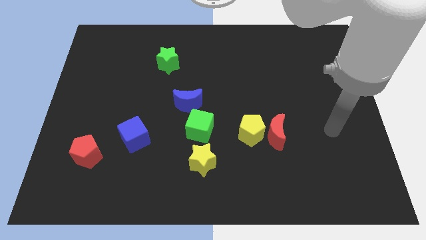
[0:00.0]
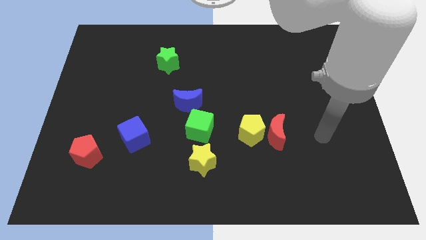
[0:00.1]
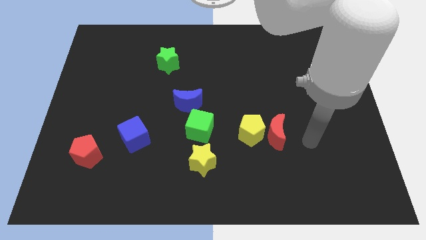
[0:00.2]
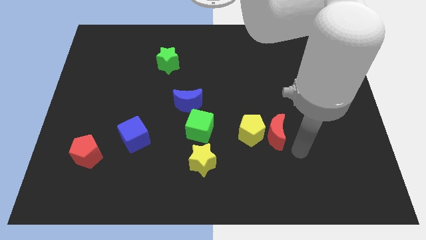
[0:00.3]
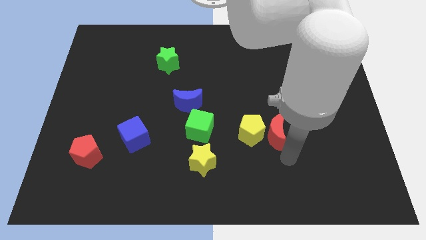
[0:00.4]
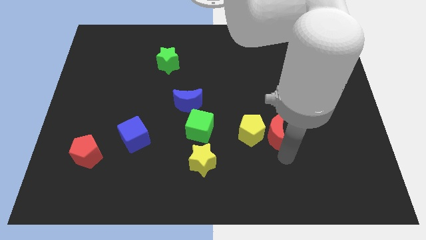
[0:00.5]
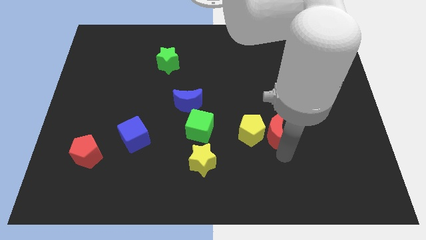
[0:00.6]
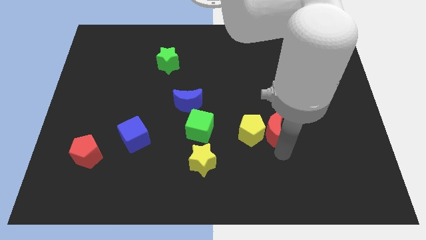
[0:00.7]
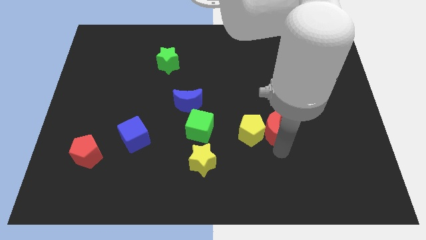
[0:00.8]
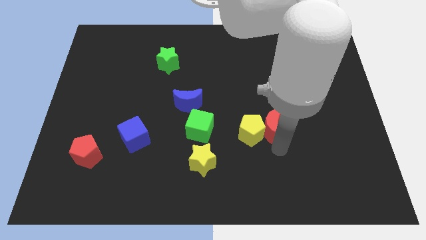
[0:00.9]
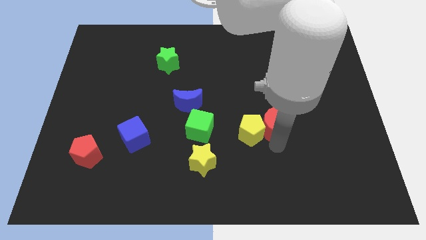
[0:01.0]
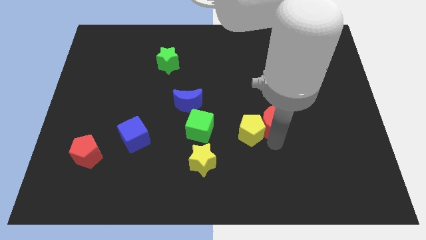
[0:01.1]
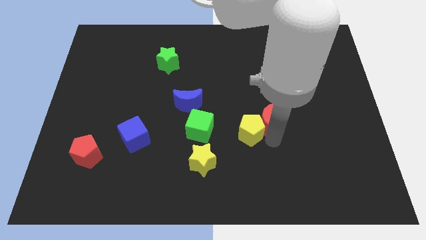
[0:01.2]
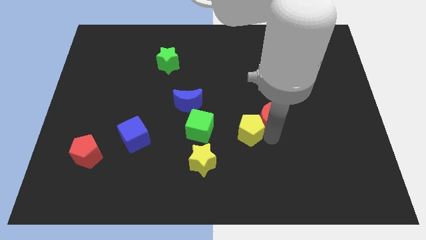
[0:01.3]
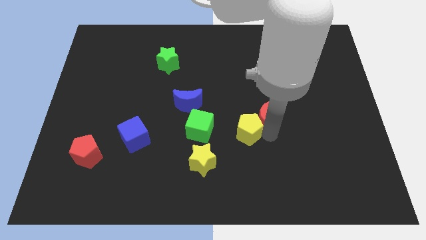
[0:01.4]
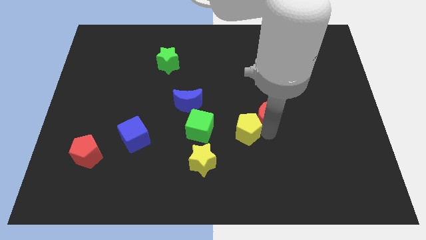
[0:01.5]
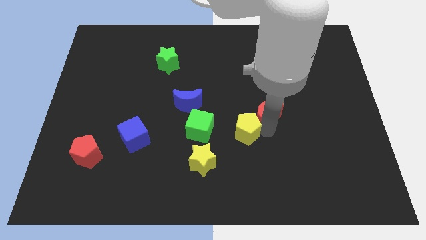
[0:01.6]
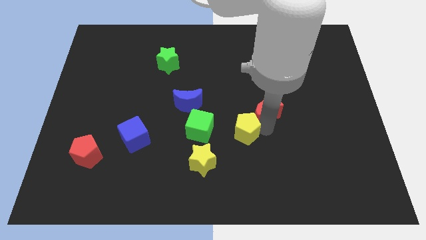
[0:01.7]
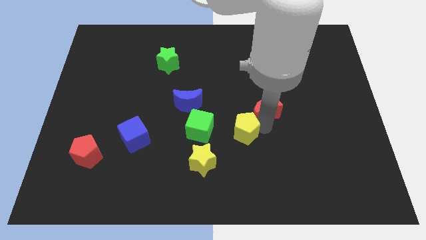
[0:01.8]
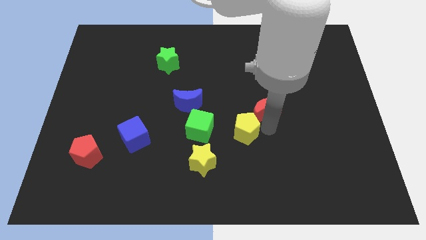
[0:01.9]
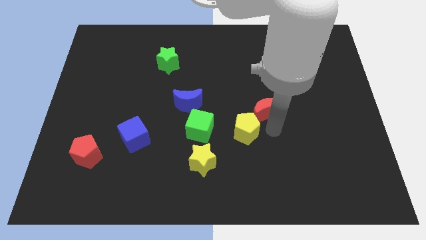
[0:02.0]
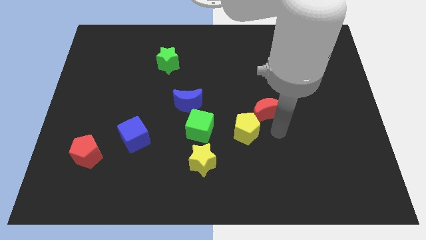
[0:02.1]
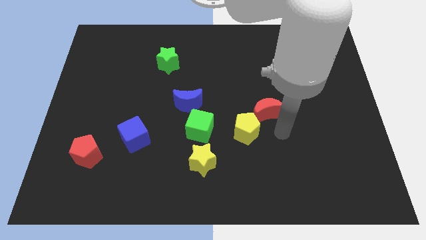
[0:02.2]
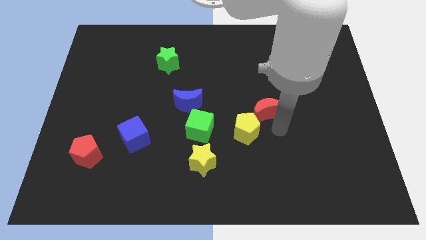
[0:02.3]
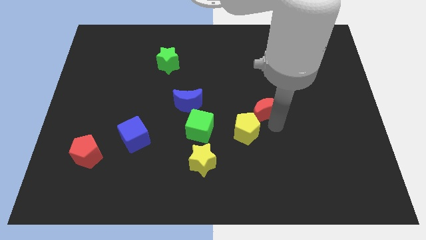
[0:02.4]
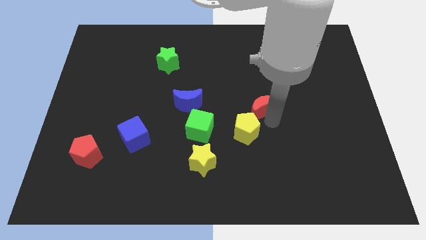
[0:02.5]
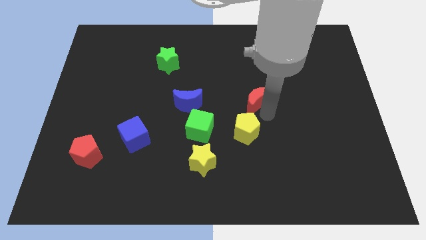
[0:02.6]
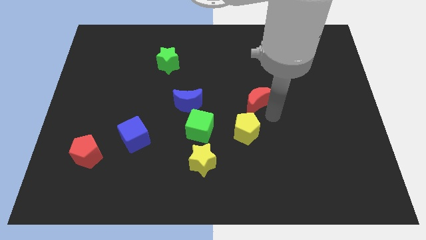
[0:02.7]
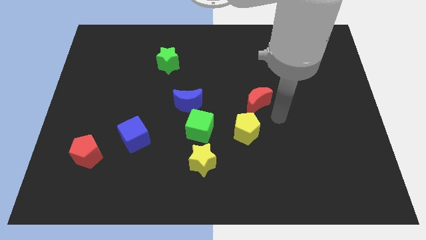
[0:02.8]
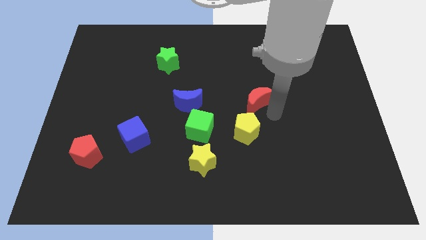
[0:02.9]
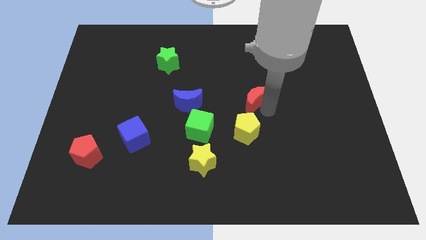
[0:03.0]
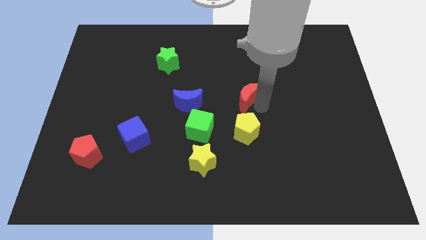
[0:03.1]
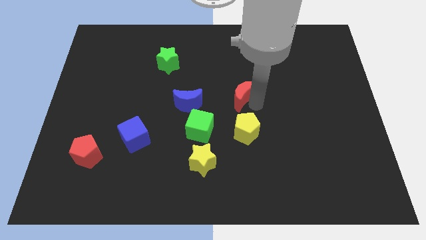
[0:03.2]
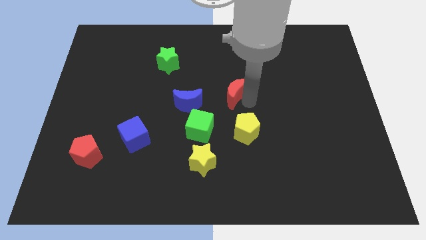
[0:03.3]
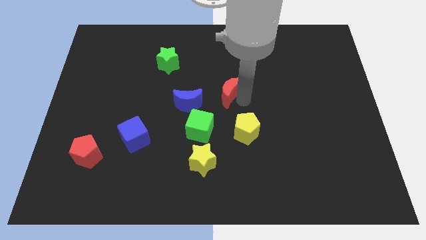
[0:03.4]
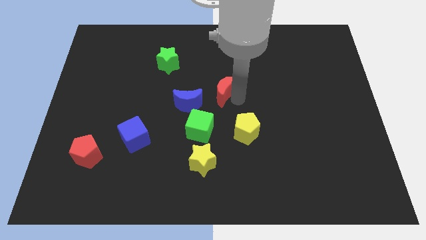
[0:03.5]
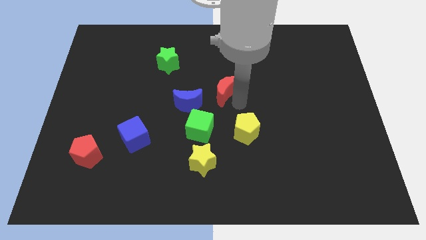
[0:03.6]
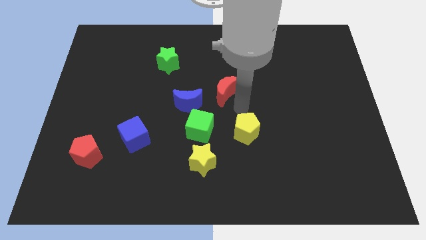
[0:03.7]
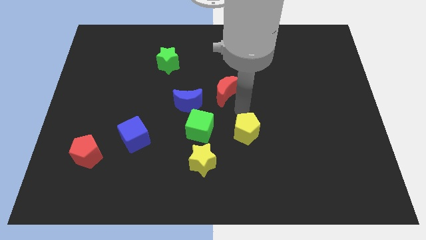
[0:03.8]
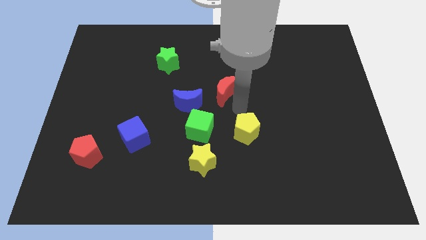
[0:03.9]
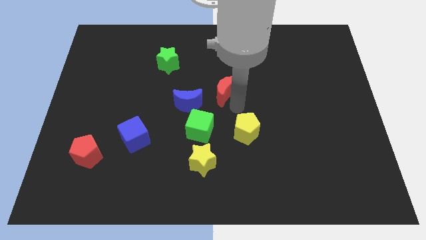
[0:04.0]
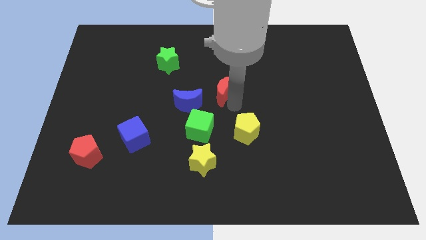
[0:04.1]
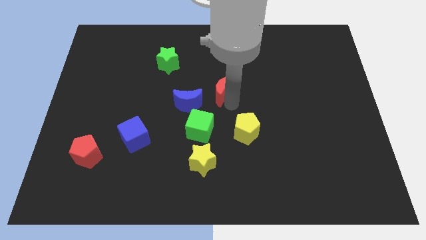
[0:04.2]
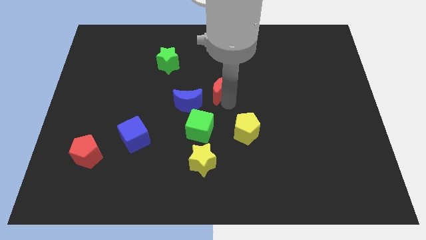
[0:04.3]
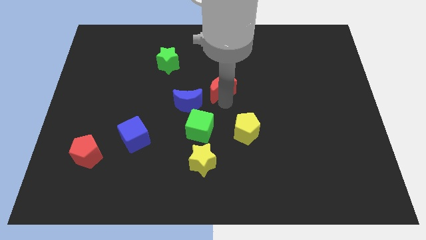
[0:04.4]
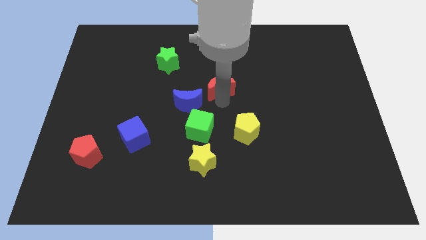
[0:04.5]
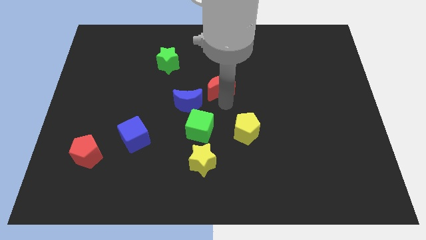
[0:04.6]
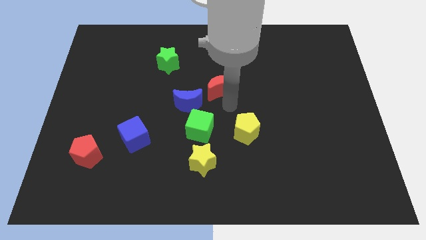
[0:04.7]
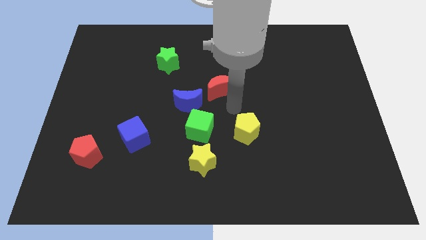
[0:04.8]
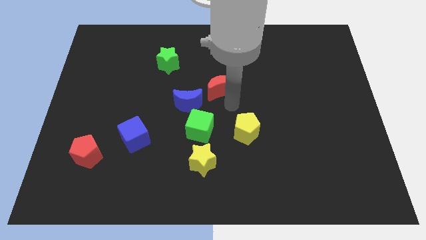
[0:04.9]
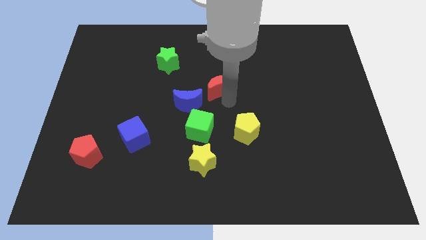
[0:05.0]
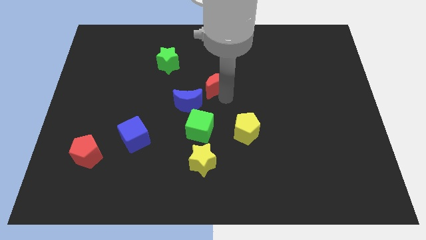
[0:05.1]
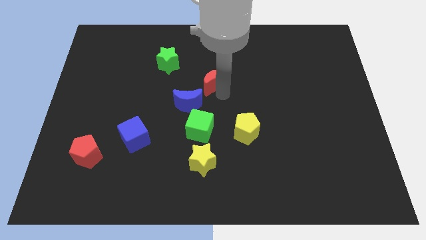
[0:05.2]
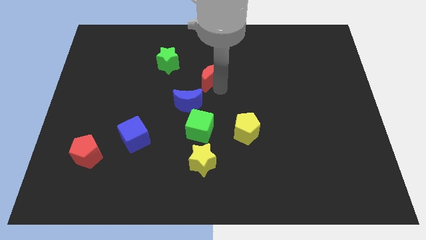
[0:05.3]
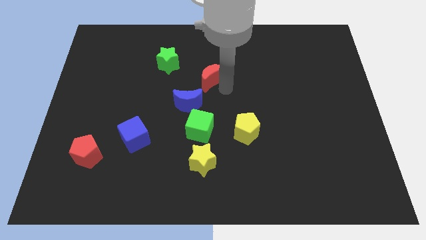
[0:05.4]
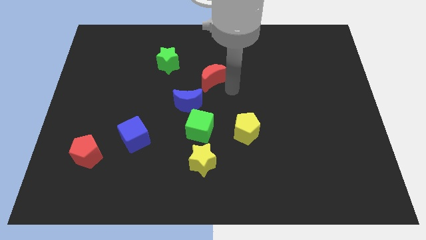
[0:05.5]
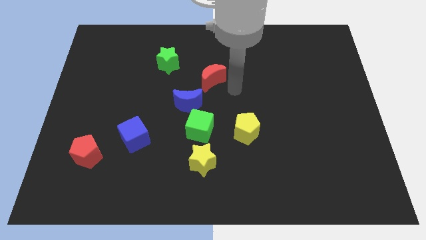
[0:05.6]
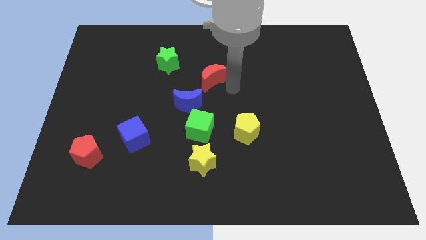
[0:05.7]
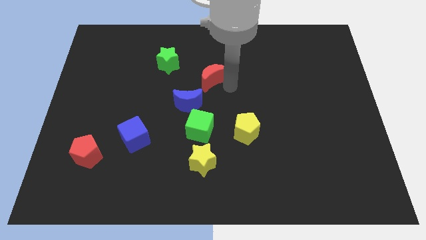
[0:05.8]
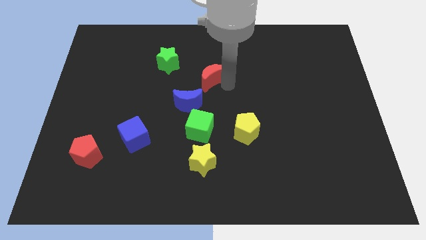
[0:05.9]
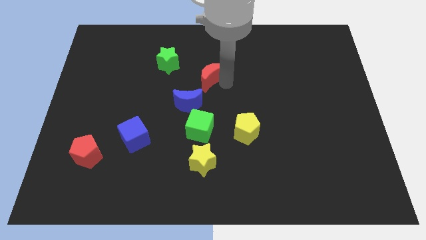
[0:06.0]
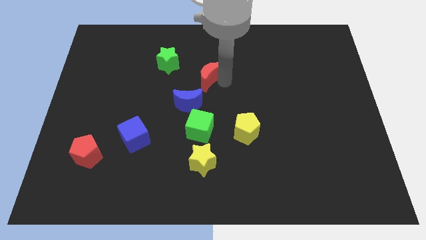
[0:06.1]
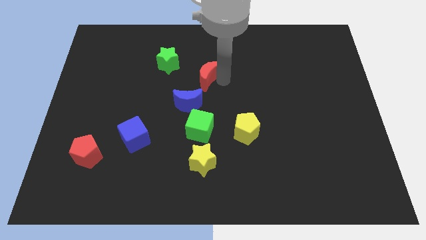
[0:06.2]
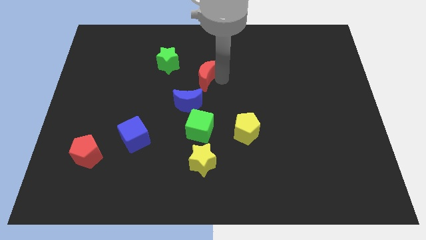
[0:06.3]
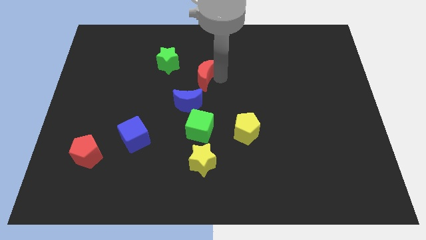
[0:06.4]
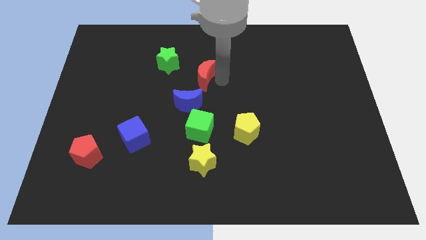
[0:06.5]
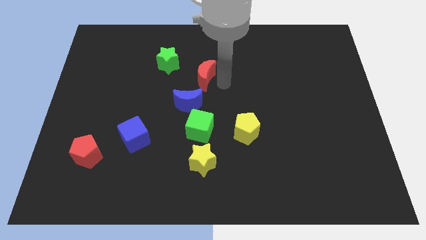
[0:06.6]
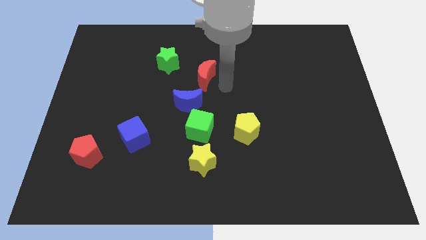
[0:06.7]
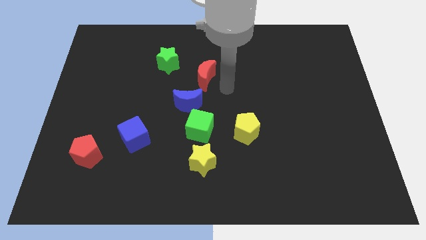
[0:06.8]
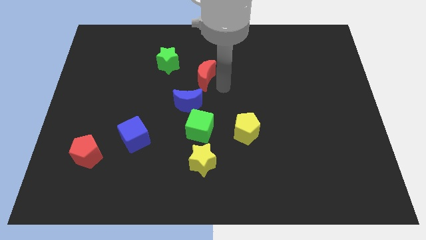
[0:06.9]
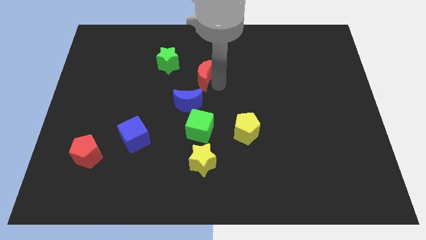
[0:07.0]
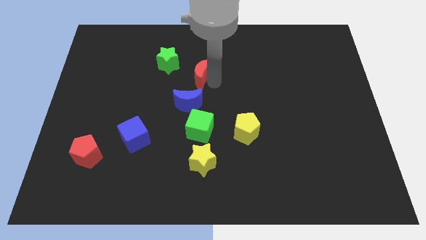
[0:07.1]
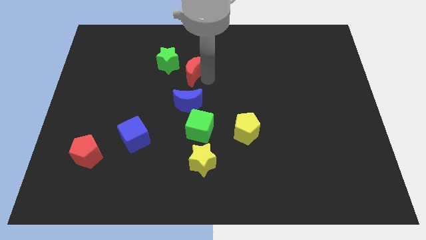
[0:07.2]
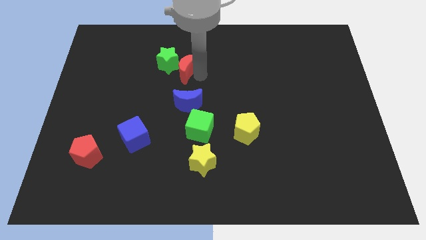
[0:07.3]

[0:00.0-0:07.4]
slide the red moon next to the green star

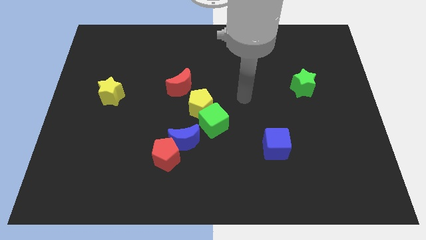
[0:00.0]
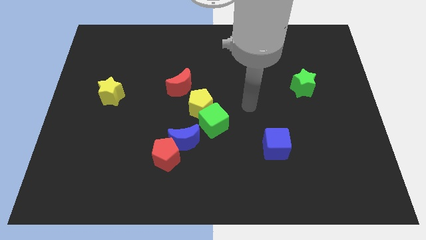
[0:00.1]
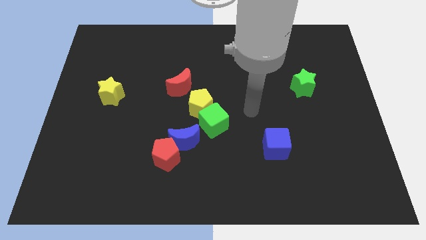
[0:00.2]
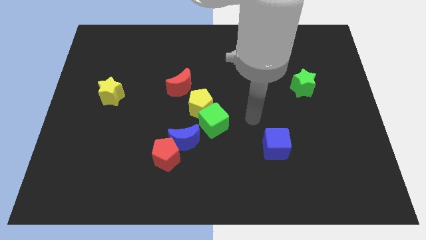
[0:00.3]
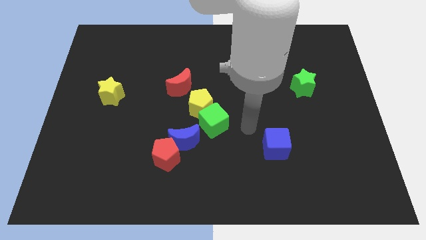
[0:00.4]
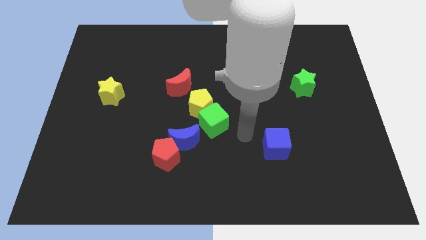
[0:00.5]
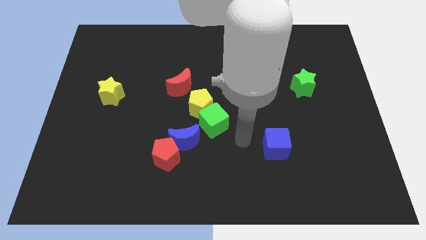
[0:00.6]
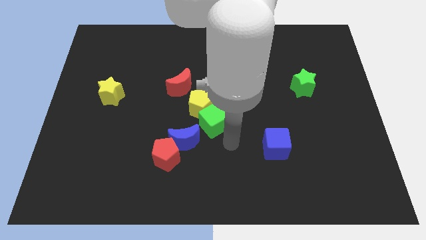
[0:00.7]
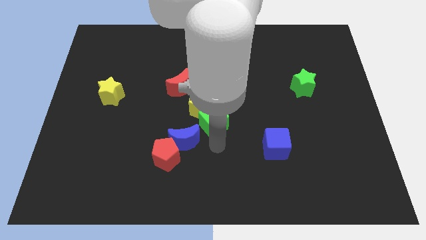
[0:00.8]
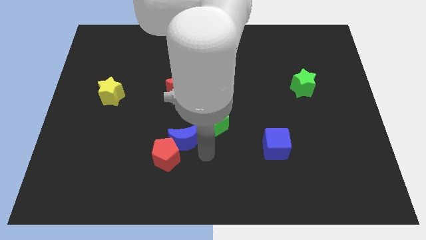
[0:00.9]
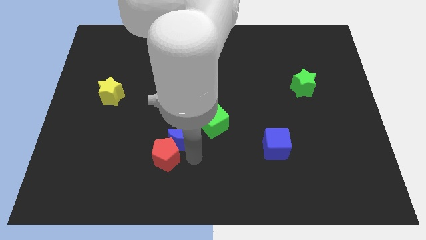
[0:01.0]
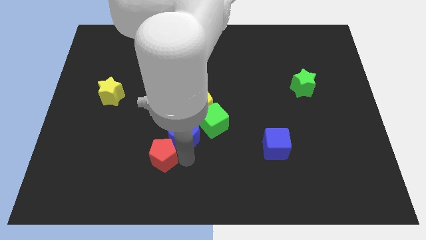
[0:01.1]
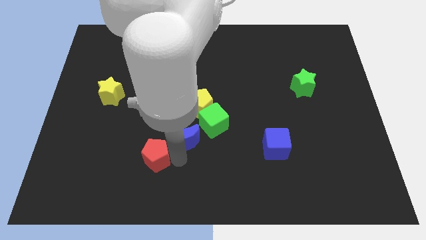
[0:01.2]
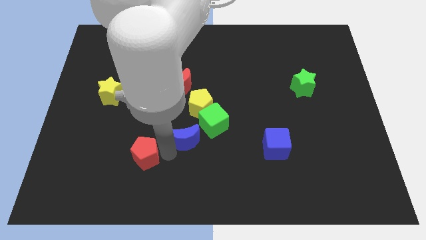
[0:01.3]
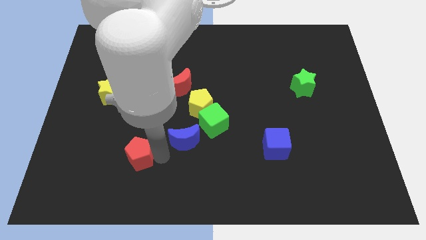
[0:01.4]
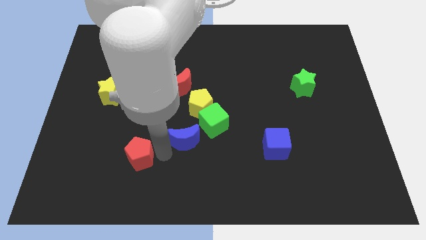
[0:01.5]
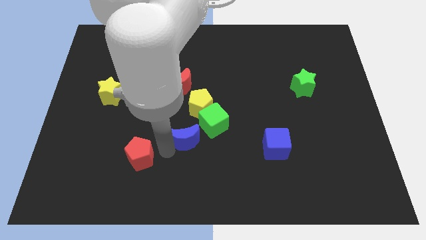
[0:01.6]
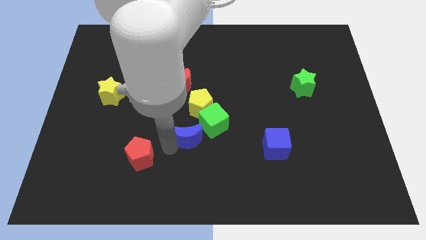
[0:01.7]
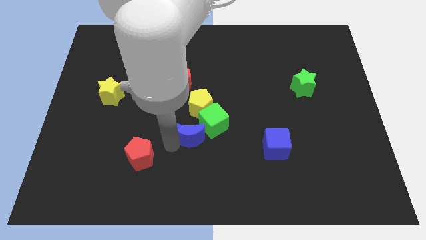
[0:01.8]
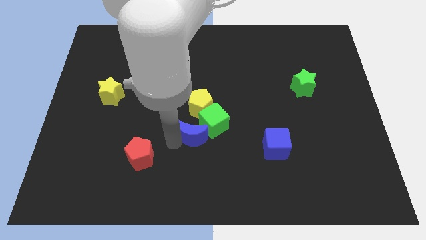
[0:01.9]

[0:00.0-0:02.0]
slide the blue moon close to the green cube
